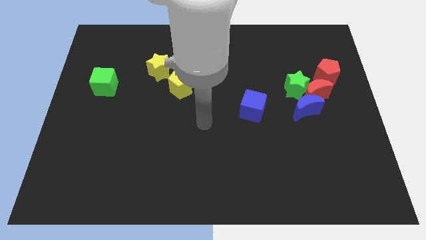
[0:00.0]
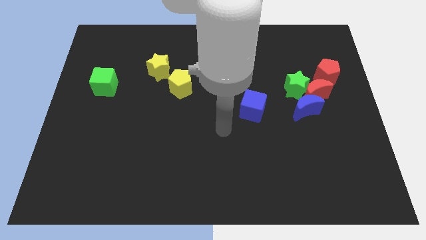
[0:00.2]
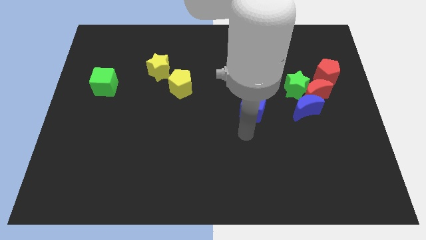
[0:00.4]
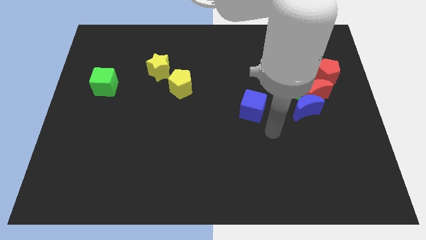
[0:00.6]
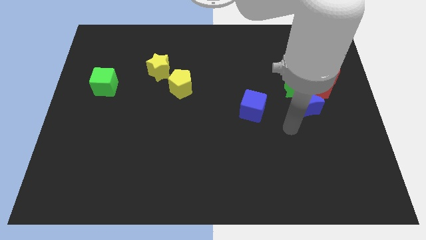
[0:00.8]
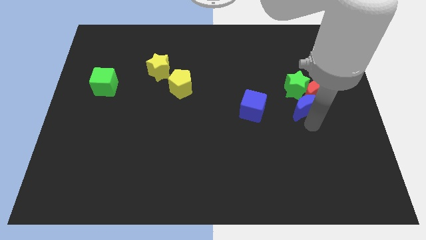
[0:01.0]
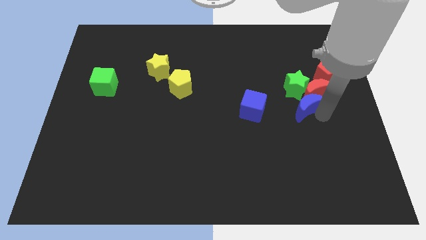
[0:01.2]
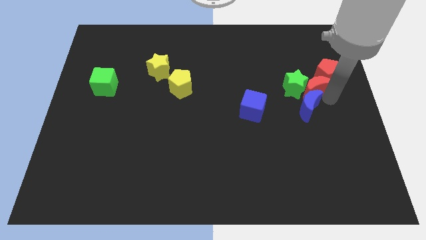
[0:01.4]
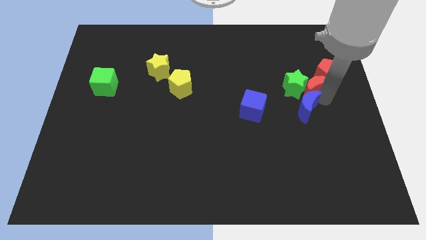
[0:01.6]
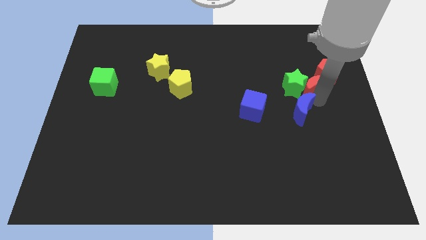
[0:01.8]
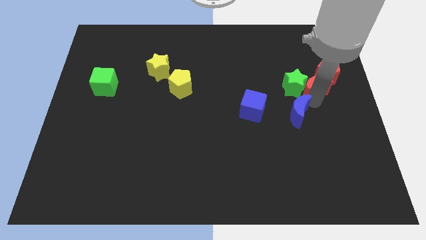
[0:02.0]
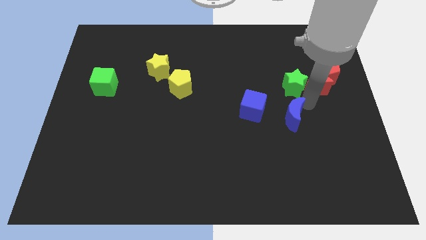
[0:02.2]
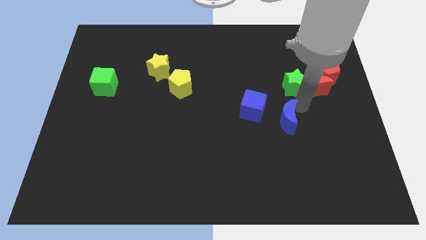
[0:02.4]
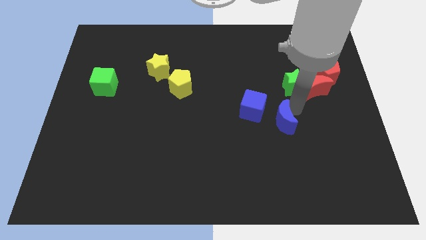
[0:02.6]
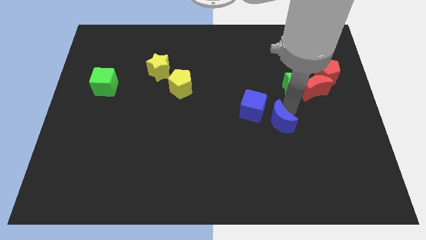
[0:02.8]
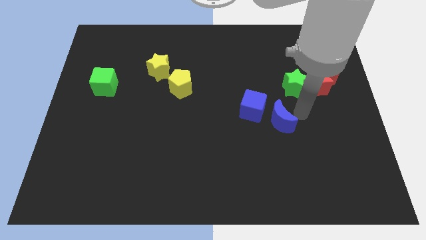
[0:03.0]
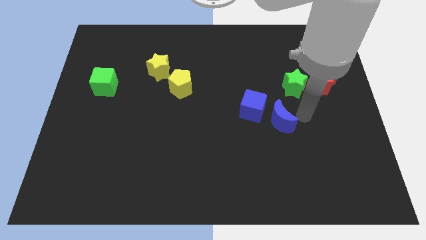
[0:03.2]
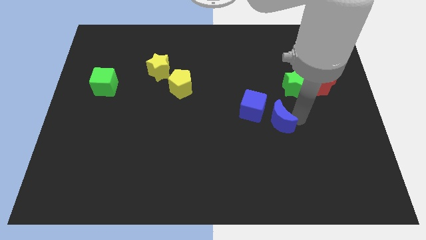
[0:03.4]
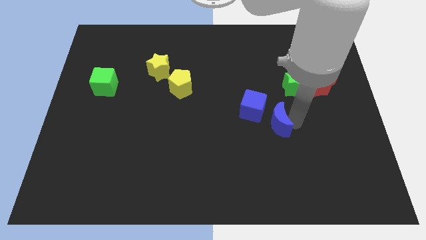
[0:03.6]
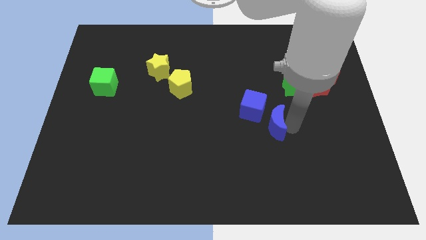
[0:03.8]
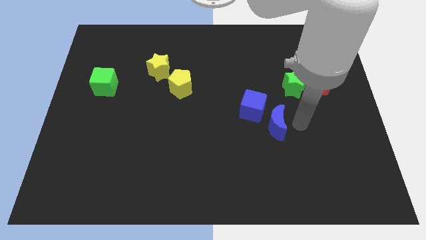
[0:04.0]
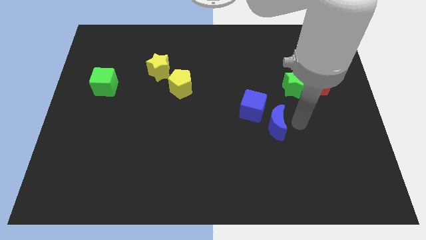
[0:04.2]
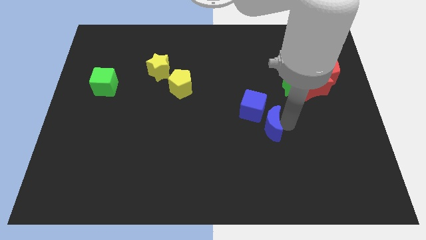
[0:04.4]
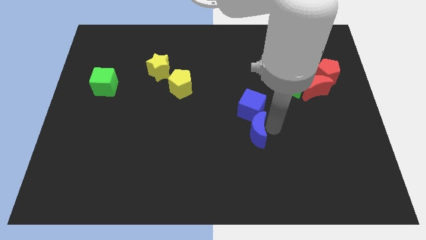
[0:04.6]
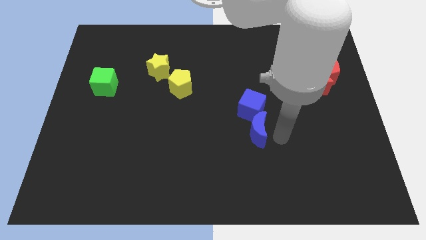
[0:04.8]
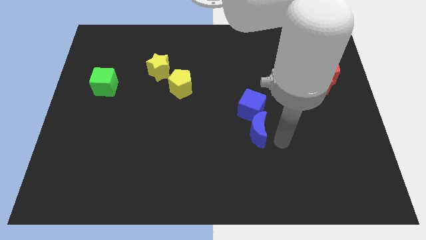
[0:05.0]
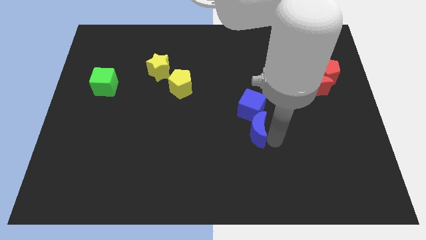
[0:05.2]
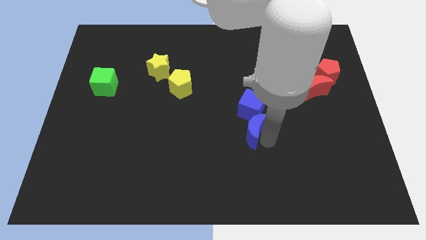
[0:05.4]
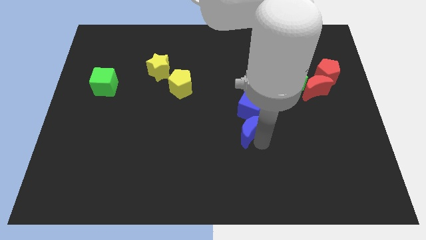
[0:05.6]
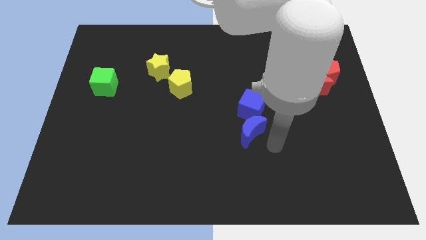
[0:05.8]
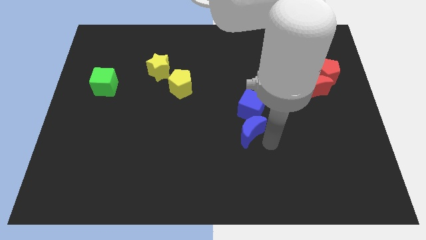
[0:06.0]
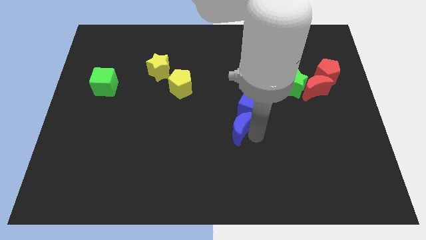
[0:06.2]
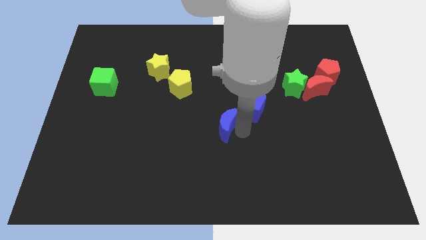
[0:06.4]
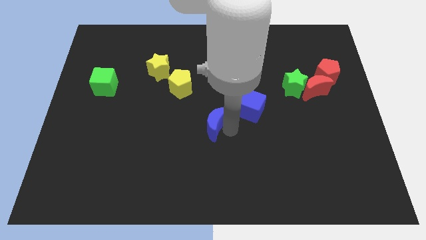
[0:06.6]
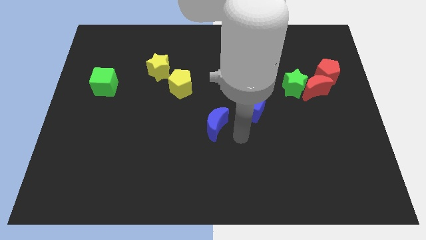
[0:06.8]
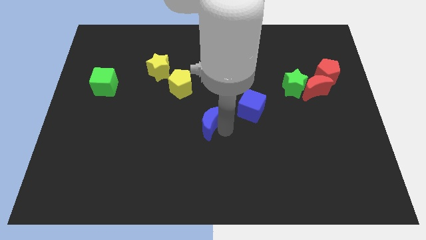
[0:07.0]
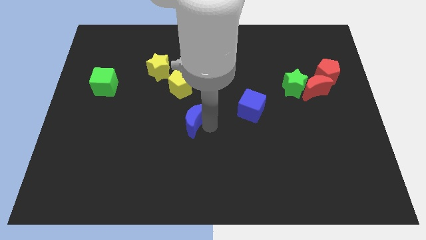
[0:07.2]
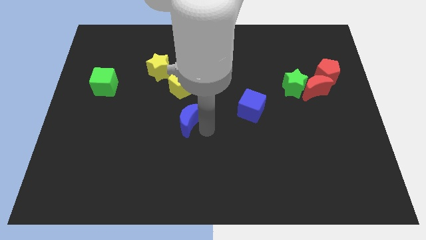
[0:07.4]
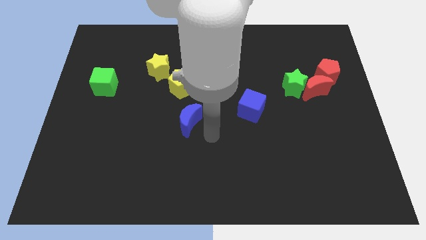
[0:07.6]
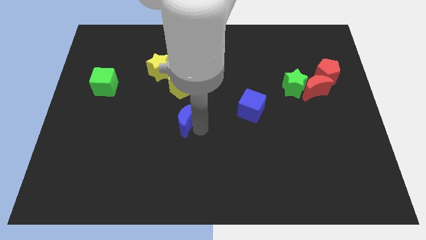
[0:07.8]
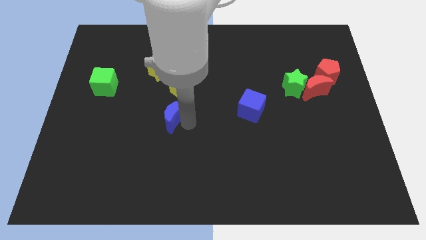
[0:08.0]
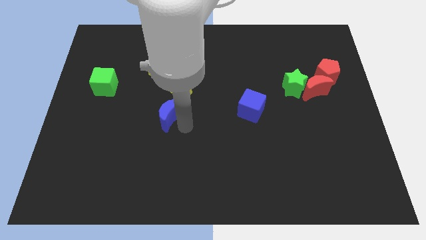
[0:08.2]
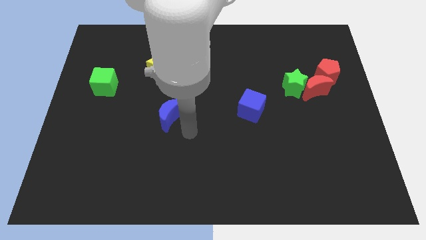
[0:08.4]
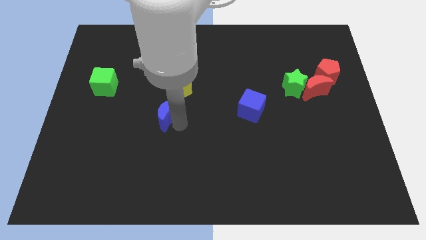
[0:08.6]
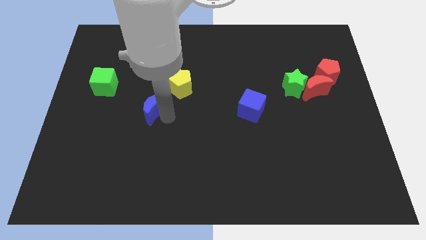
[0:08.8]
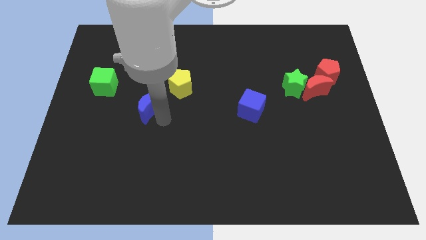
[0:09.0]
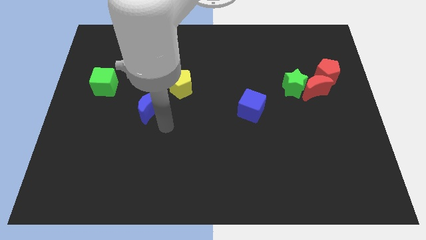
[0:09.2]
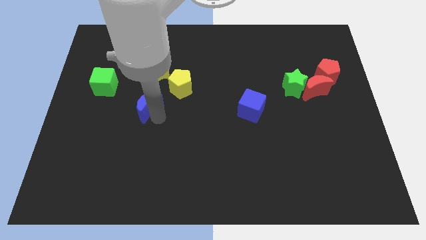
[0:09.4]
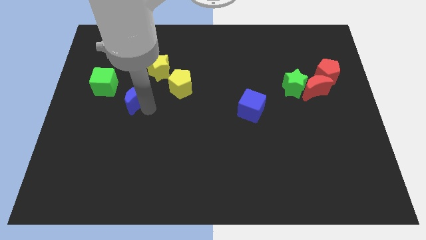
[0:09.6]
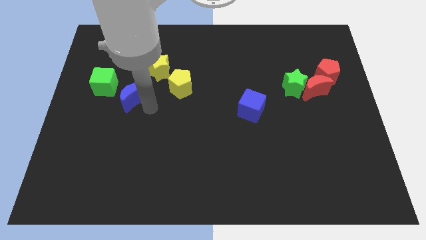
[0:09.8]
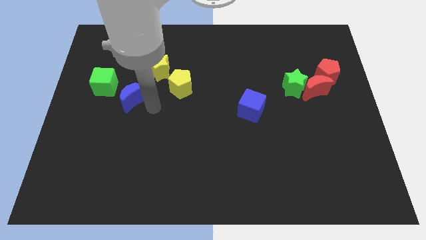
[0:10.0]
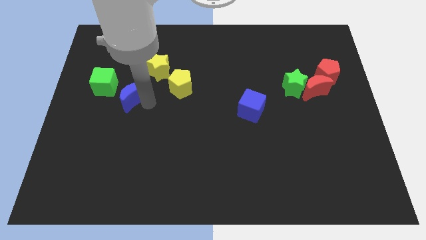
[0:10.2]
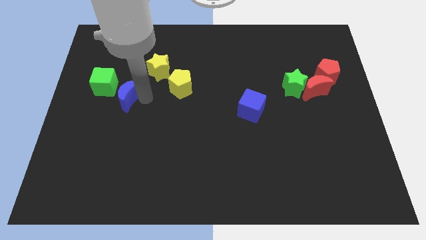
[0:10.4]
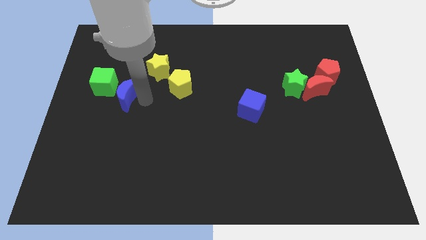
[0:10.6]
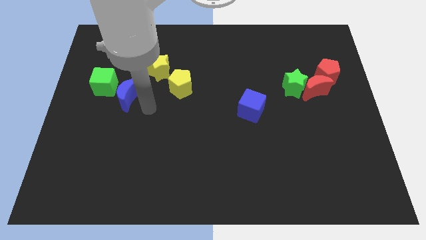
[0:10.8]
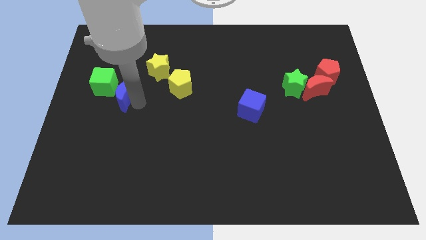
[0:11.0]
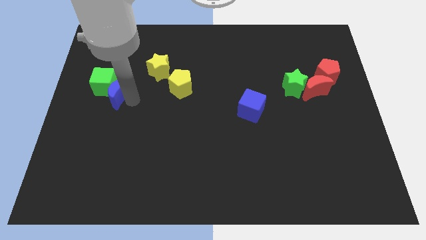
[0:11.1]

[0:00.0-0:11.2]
move the blue moon close to the green cube

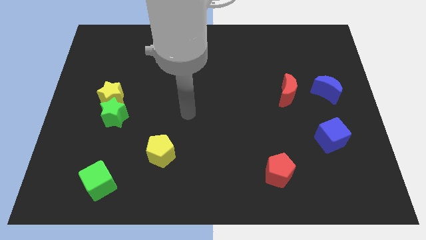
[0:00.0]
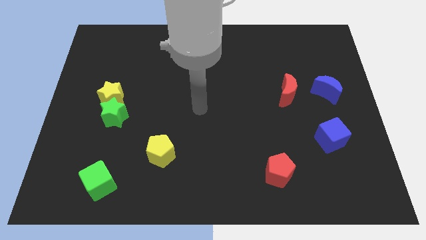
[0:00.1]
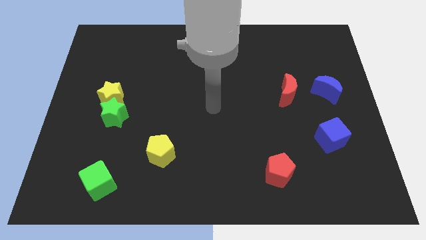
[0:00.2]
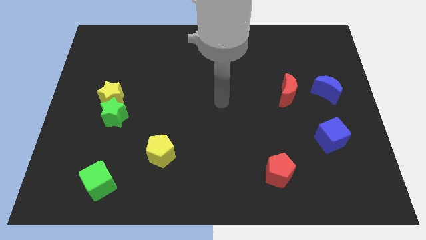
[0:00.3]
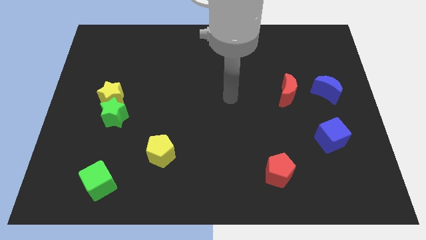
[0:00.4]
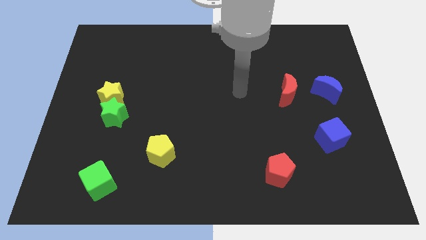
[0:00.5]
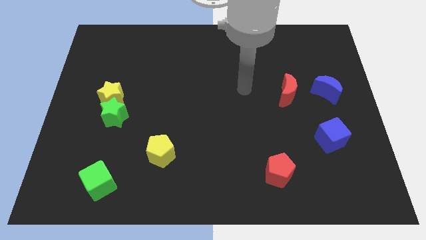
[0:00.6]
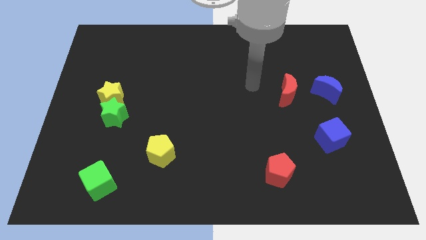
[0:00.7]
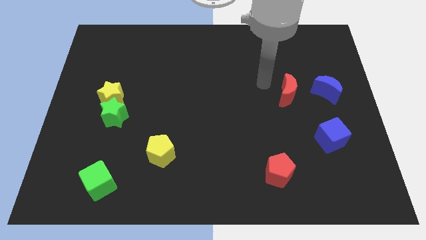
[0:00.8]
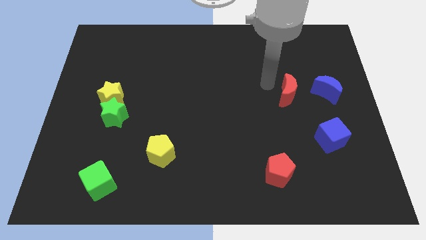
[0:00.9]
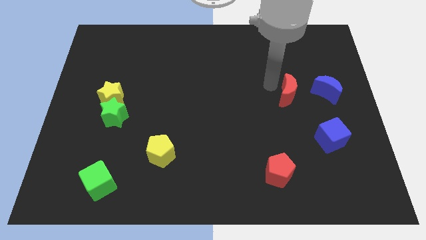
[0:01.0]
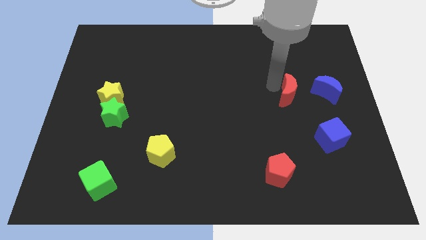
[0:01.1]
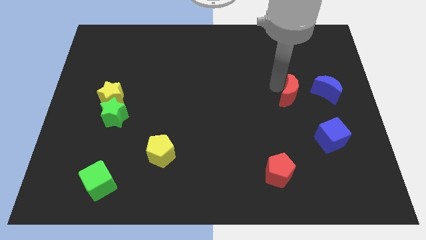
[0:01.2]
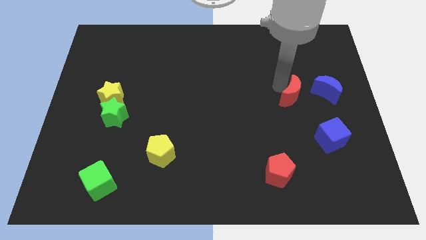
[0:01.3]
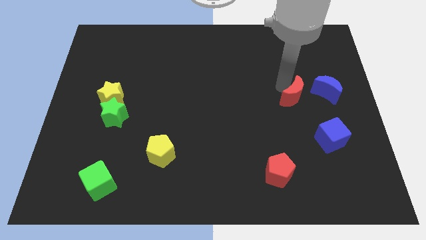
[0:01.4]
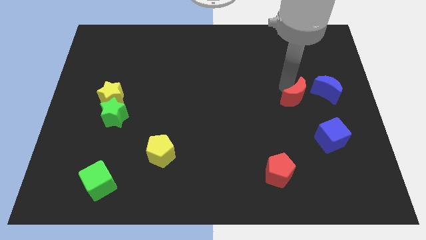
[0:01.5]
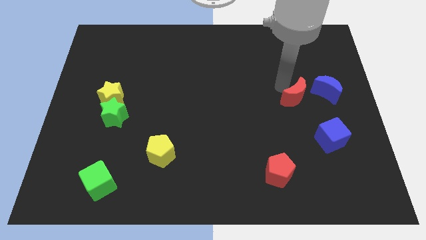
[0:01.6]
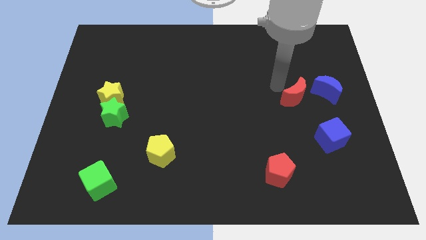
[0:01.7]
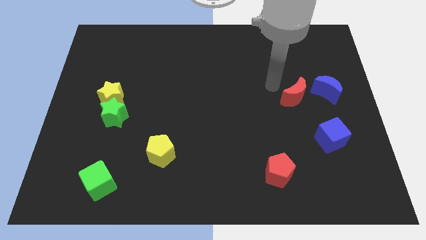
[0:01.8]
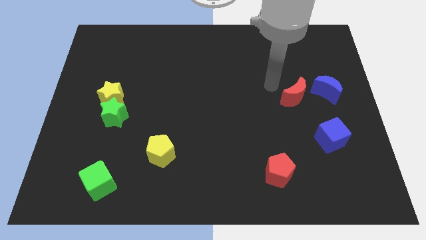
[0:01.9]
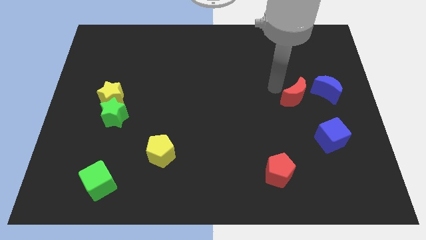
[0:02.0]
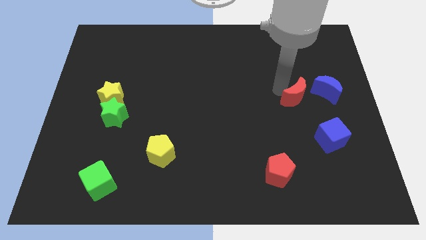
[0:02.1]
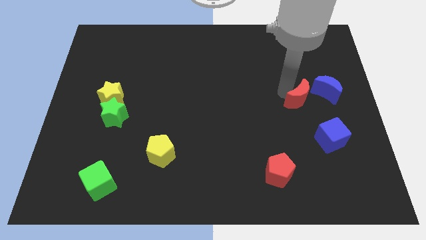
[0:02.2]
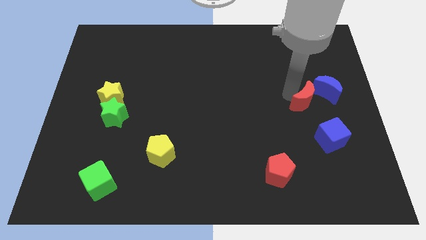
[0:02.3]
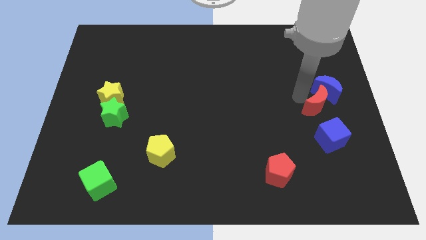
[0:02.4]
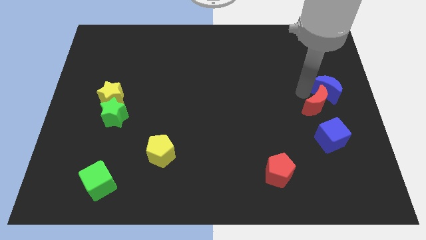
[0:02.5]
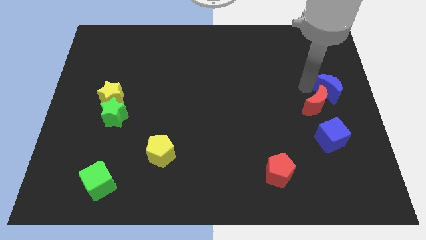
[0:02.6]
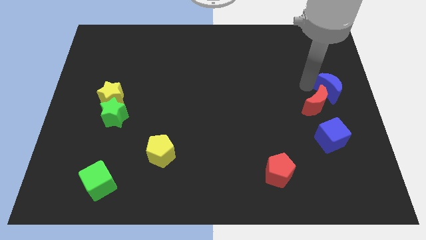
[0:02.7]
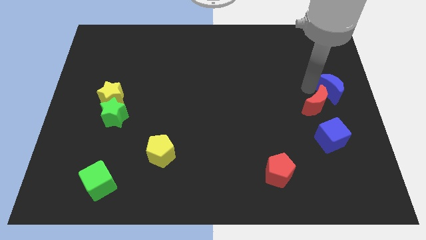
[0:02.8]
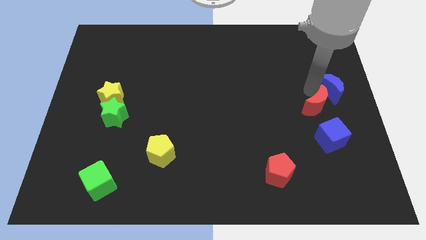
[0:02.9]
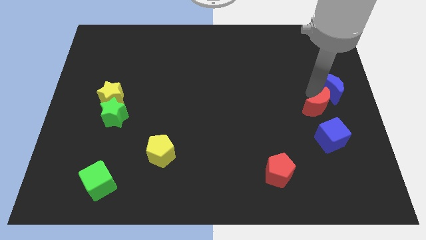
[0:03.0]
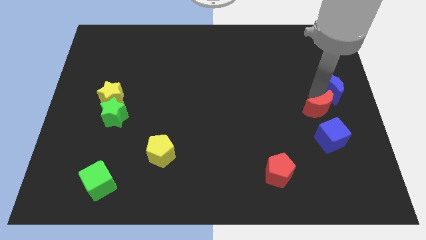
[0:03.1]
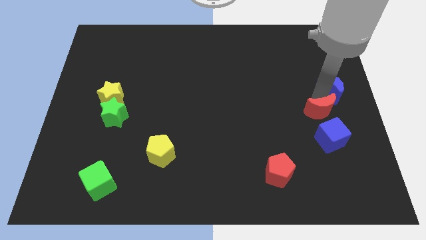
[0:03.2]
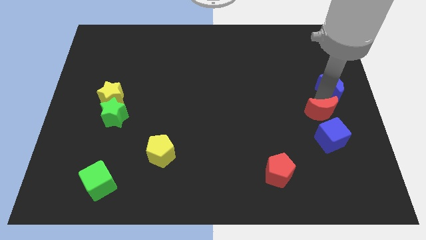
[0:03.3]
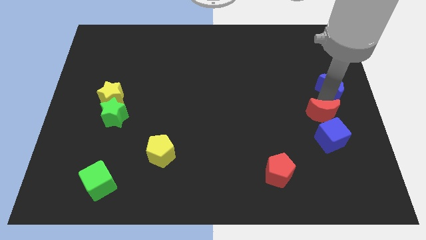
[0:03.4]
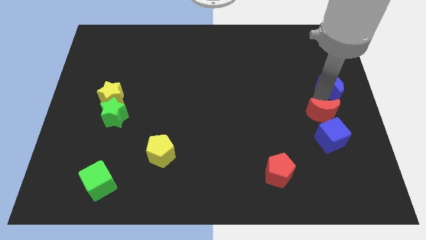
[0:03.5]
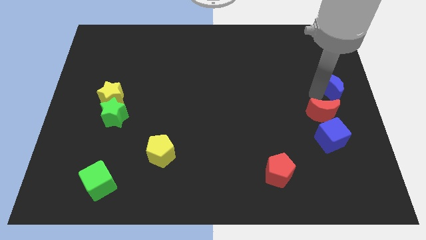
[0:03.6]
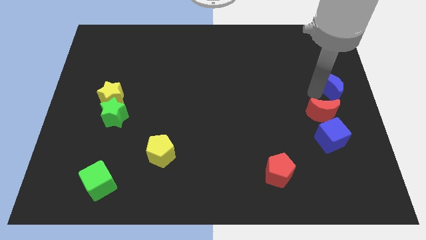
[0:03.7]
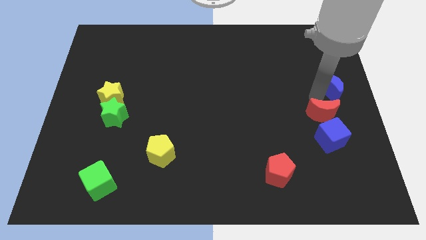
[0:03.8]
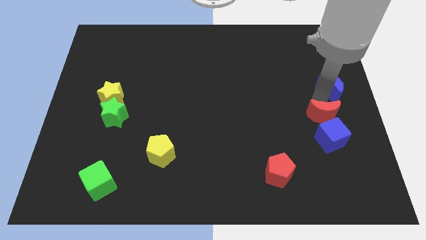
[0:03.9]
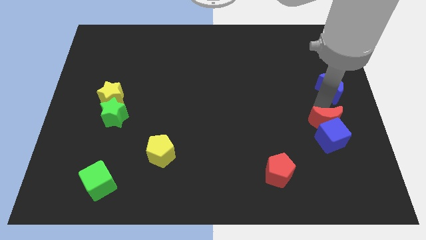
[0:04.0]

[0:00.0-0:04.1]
push the red moon towards the blue cube
